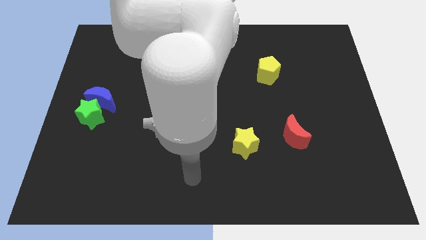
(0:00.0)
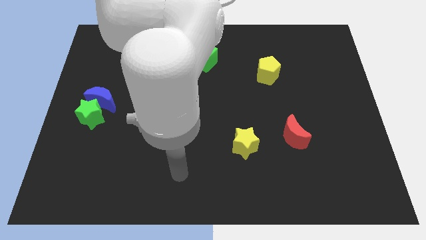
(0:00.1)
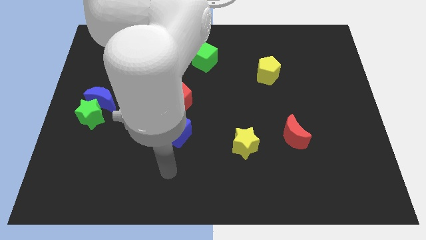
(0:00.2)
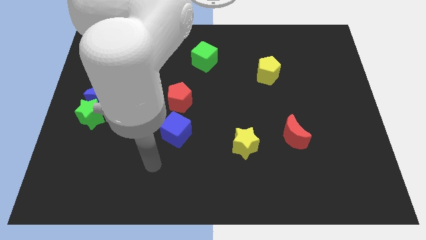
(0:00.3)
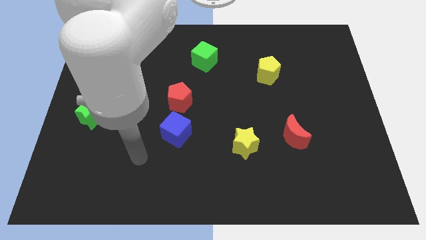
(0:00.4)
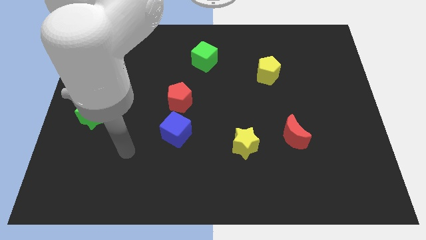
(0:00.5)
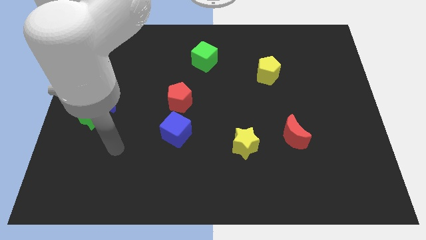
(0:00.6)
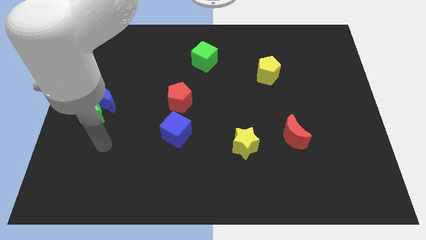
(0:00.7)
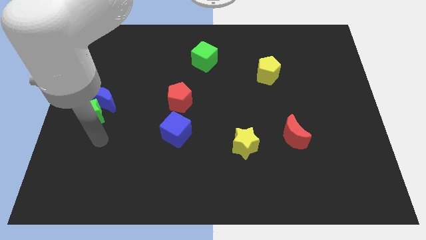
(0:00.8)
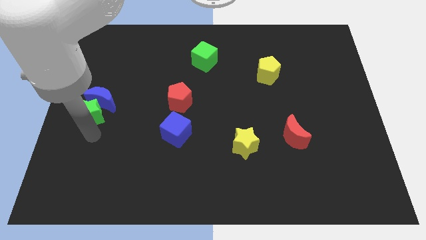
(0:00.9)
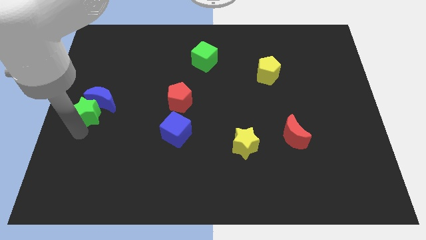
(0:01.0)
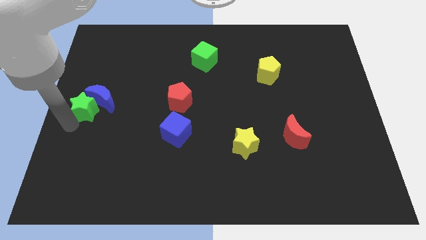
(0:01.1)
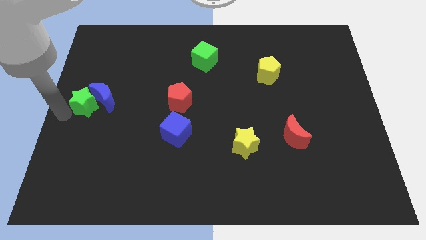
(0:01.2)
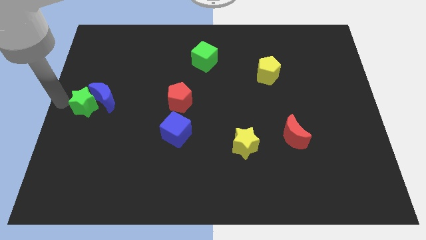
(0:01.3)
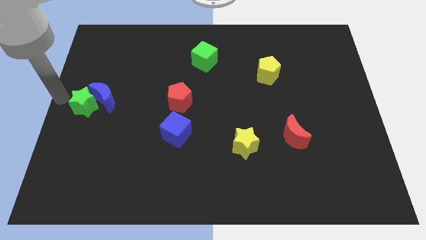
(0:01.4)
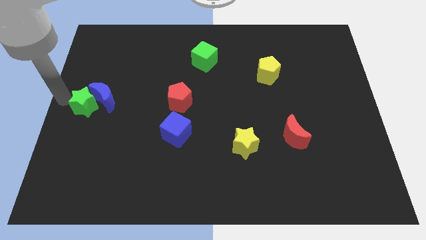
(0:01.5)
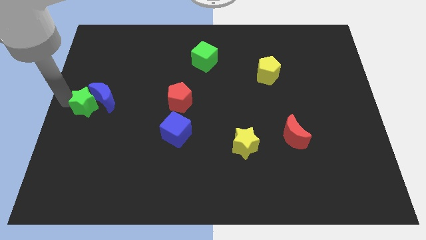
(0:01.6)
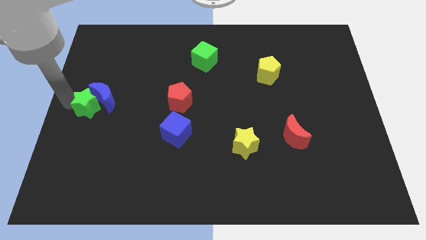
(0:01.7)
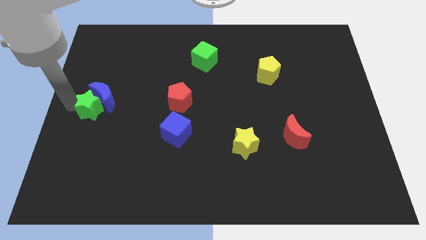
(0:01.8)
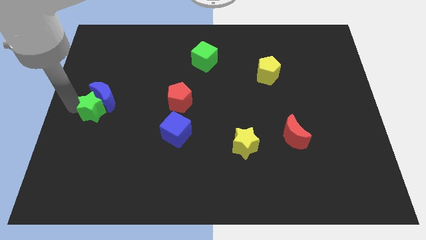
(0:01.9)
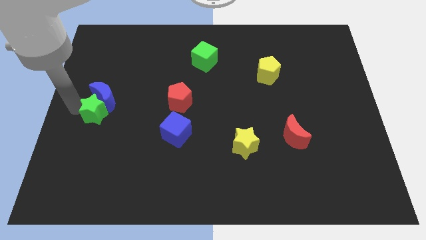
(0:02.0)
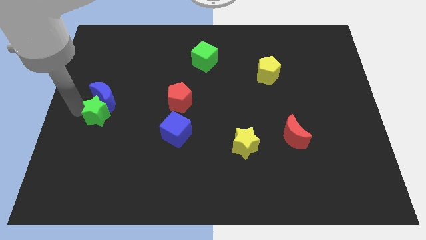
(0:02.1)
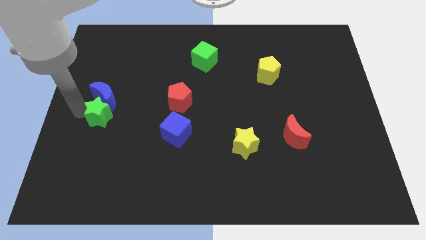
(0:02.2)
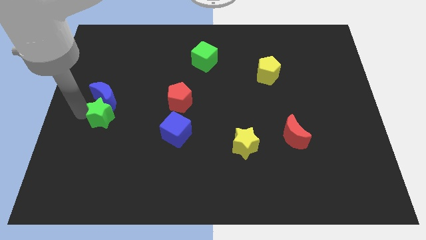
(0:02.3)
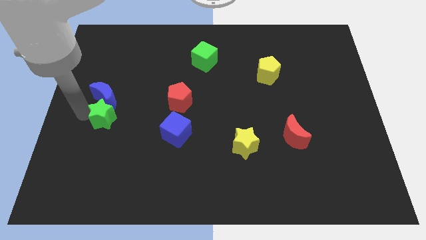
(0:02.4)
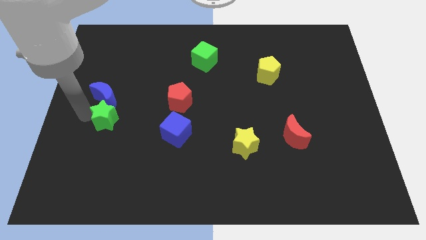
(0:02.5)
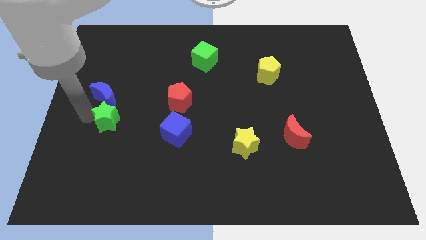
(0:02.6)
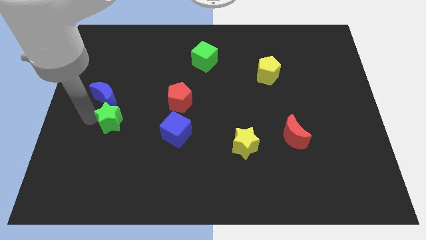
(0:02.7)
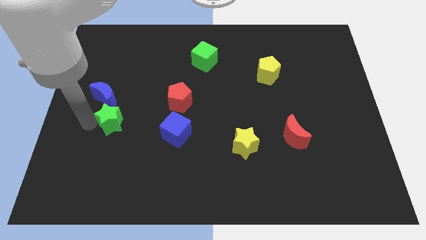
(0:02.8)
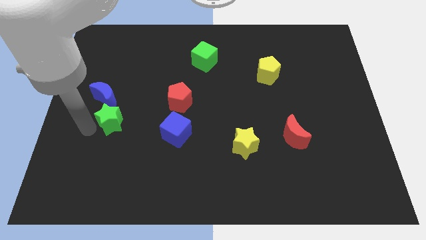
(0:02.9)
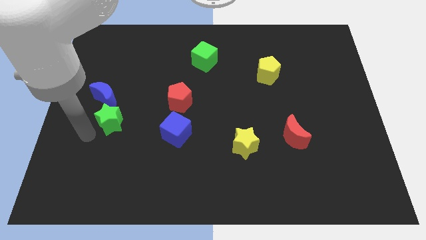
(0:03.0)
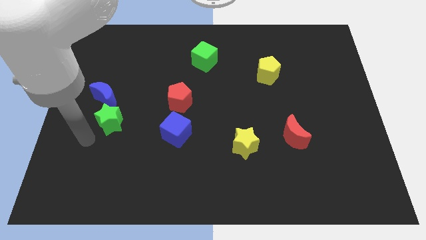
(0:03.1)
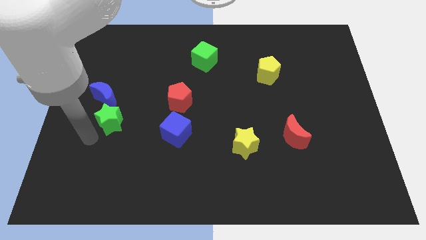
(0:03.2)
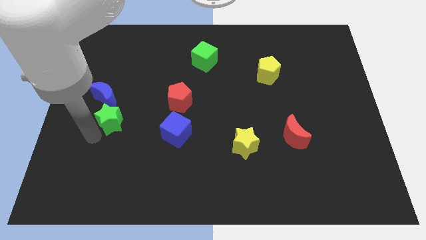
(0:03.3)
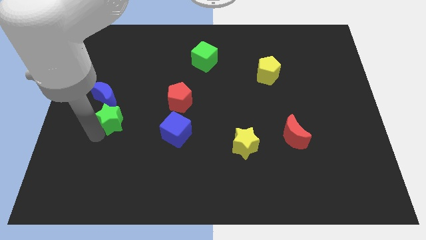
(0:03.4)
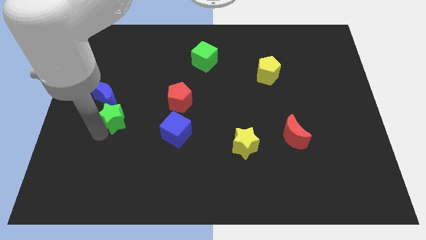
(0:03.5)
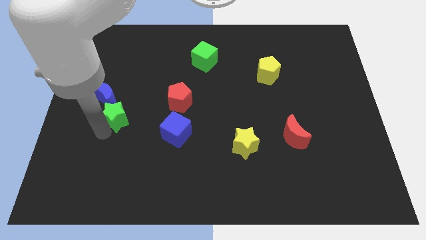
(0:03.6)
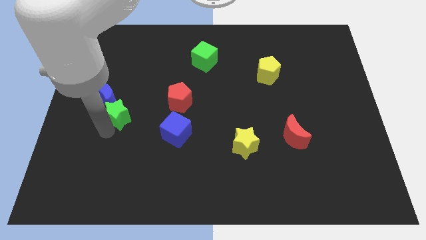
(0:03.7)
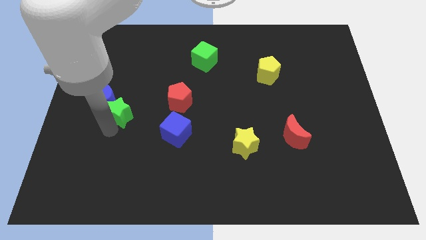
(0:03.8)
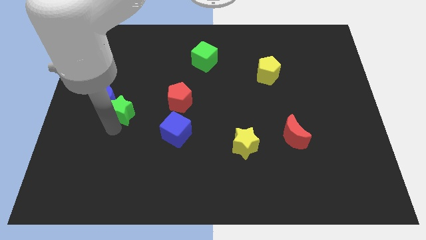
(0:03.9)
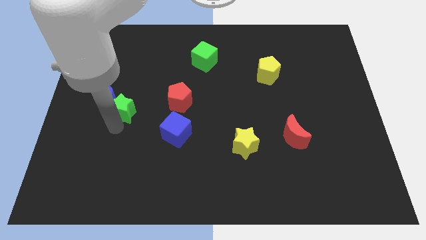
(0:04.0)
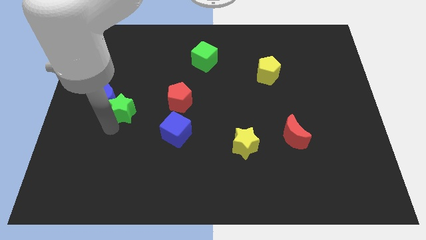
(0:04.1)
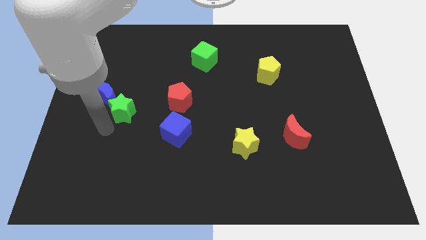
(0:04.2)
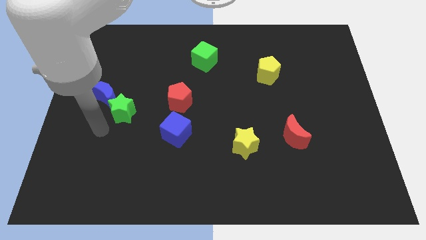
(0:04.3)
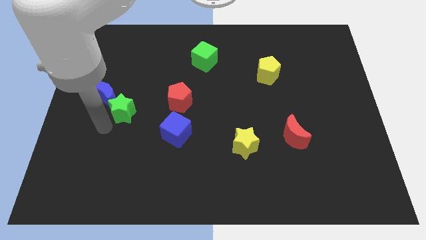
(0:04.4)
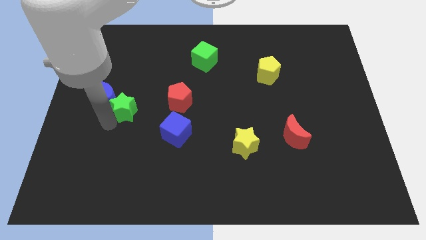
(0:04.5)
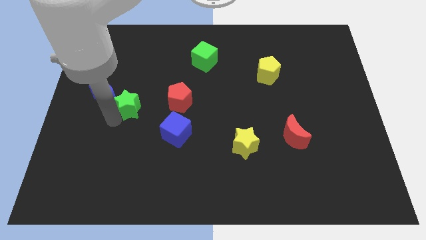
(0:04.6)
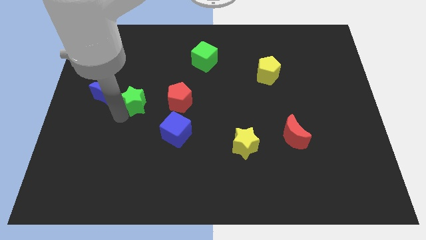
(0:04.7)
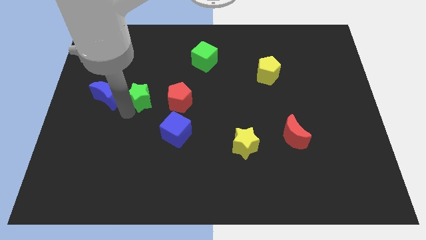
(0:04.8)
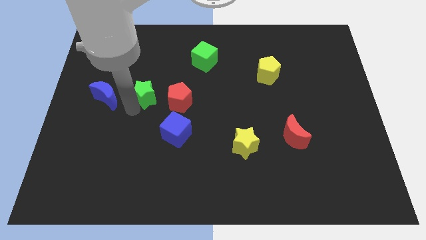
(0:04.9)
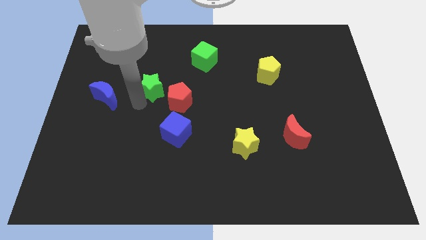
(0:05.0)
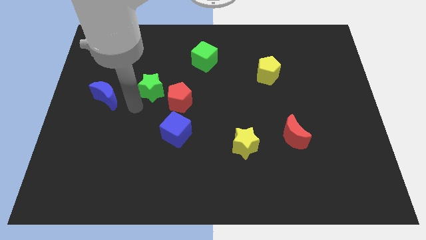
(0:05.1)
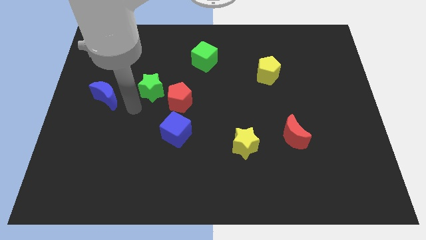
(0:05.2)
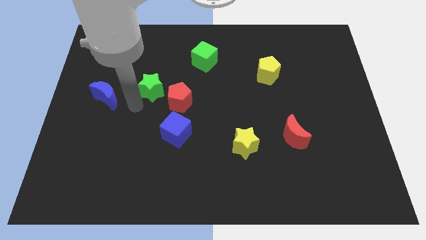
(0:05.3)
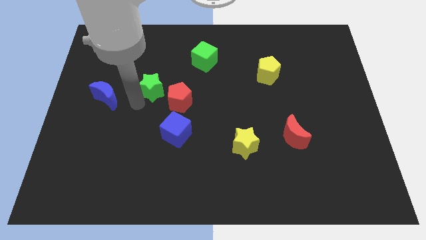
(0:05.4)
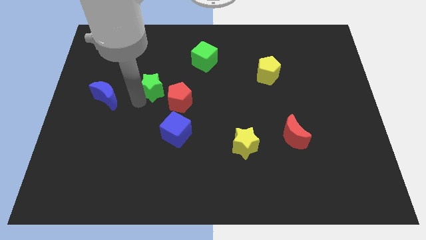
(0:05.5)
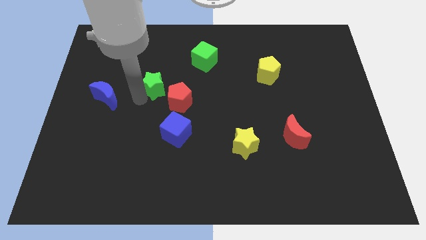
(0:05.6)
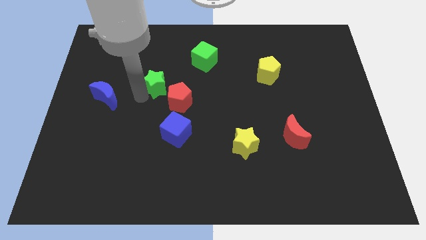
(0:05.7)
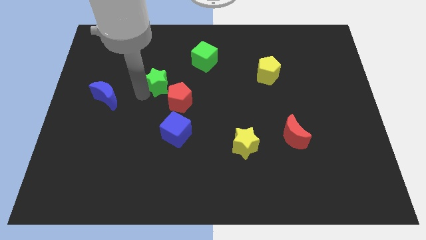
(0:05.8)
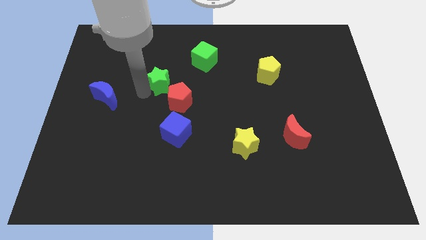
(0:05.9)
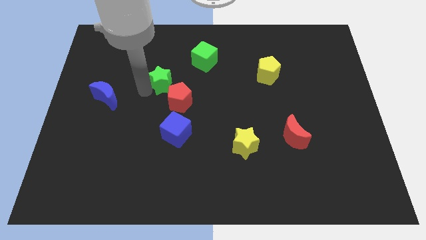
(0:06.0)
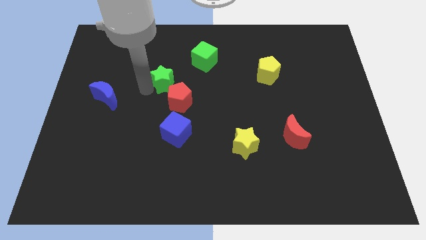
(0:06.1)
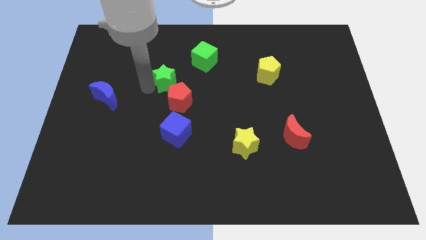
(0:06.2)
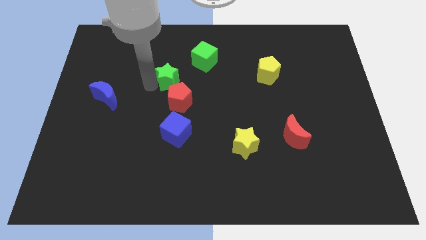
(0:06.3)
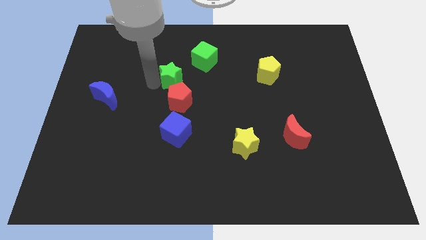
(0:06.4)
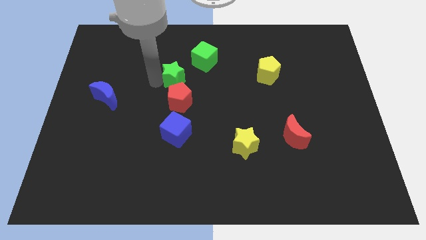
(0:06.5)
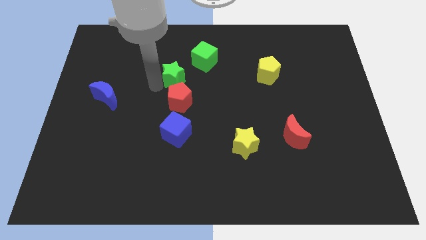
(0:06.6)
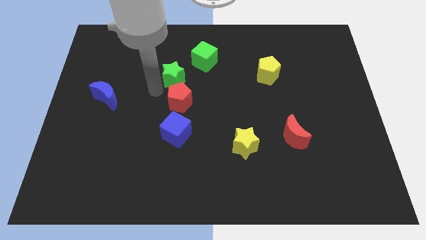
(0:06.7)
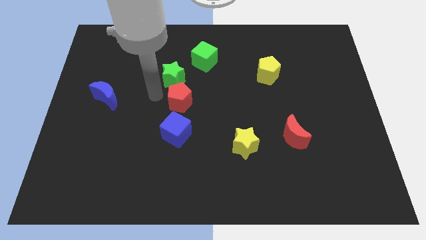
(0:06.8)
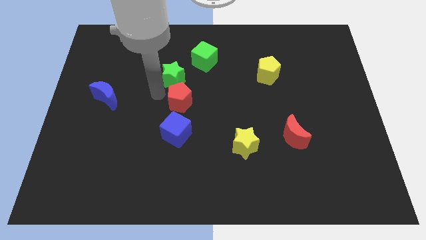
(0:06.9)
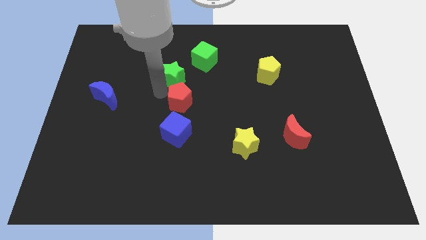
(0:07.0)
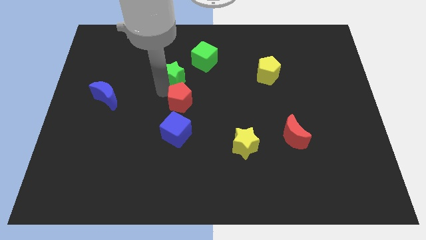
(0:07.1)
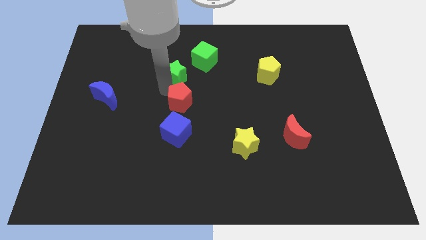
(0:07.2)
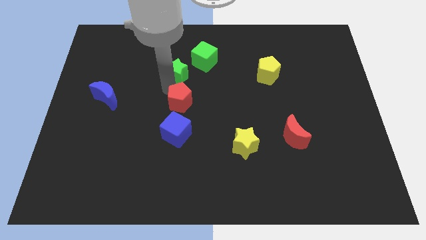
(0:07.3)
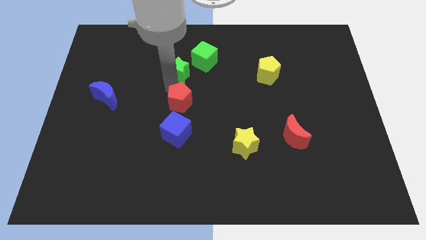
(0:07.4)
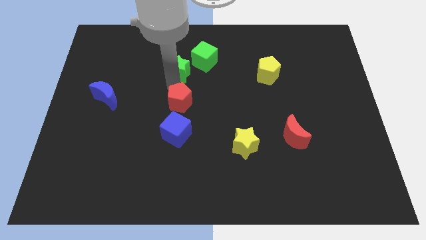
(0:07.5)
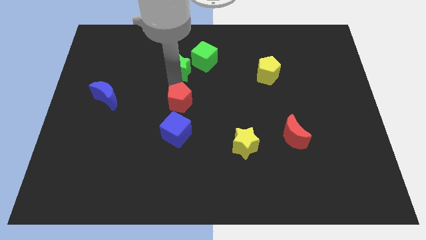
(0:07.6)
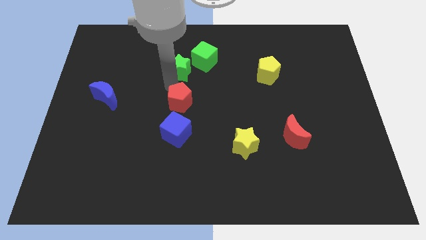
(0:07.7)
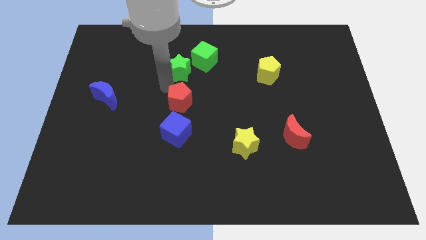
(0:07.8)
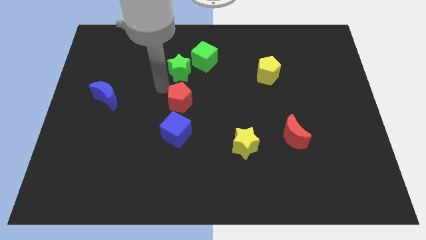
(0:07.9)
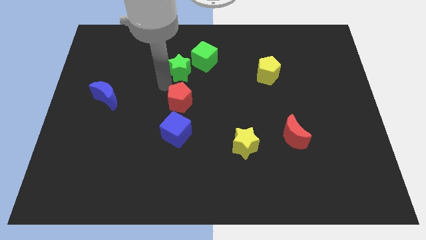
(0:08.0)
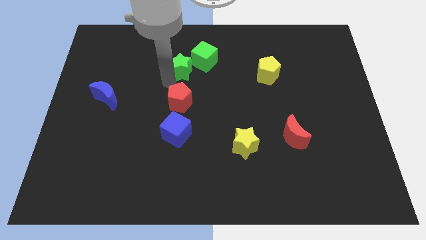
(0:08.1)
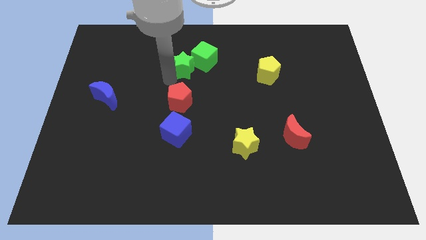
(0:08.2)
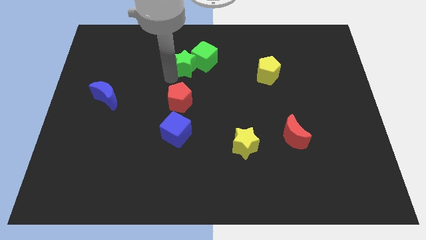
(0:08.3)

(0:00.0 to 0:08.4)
move the green star close to the green cube
